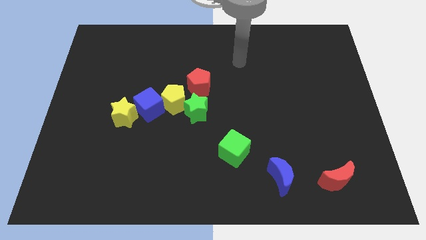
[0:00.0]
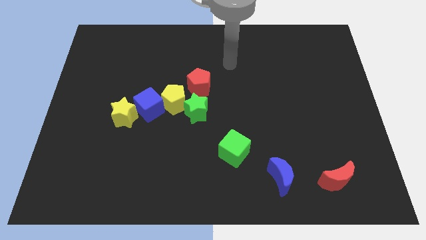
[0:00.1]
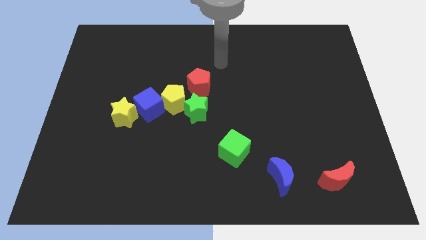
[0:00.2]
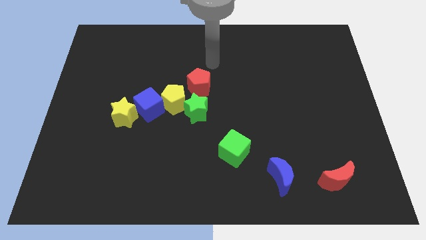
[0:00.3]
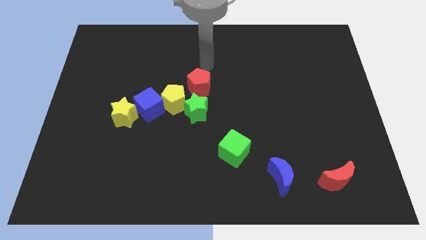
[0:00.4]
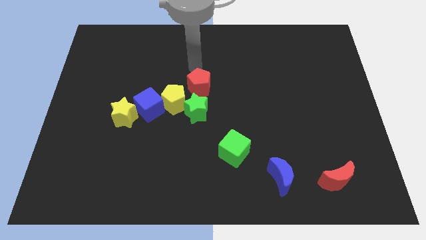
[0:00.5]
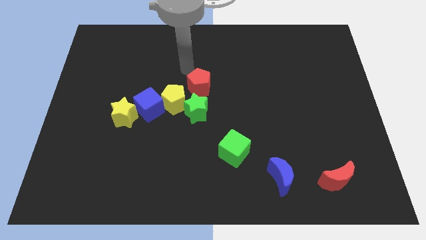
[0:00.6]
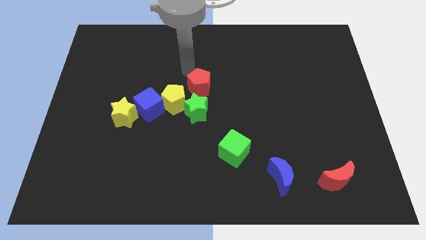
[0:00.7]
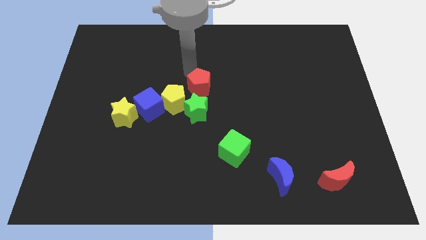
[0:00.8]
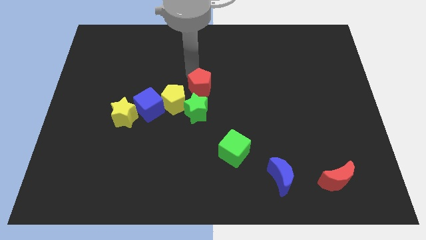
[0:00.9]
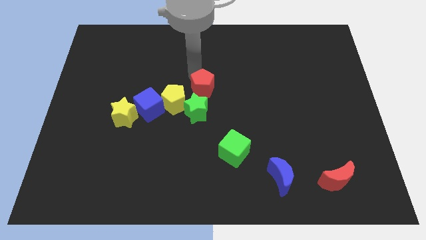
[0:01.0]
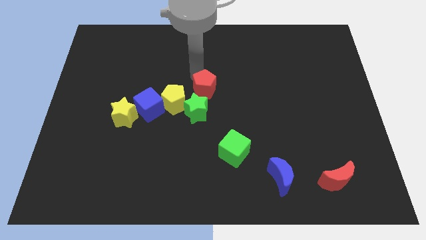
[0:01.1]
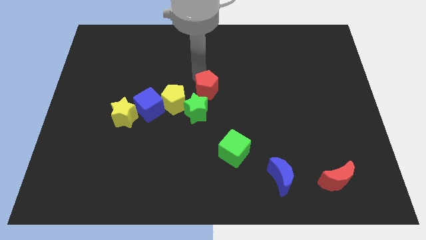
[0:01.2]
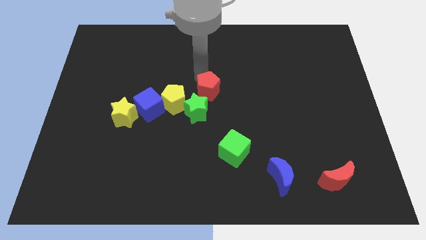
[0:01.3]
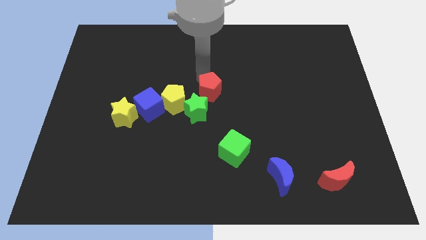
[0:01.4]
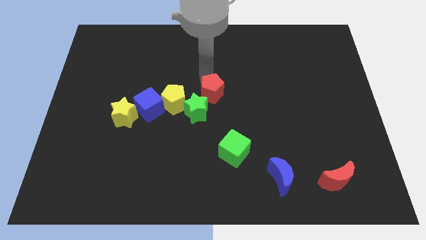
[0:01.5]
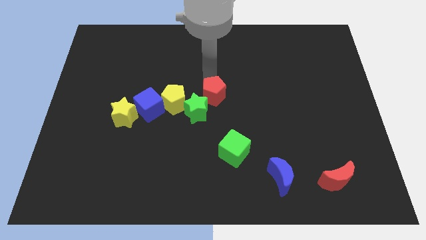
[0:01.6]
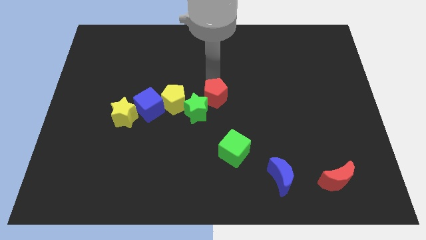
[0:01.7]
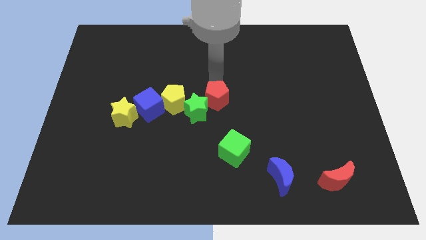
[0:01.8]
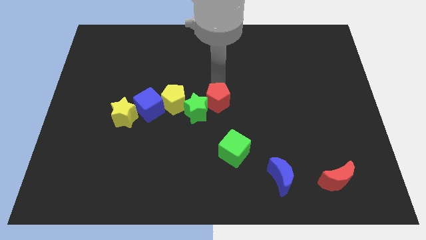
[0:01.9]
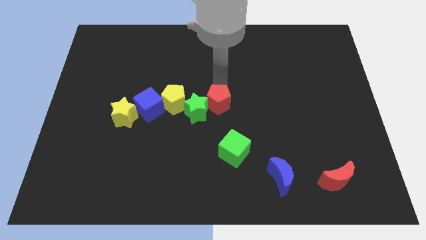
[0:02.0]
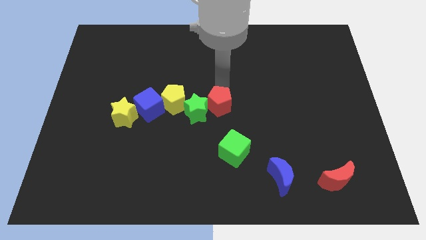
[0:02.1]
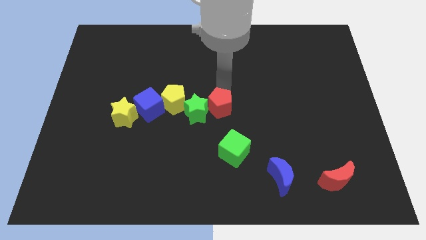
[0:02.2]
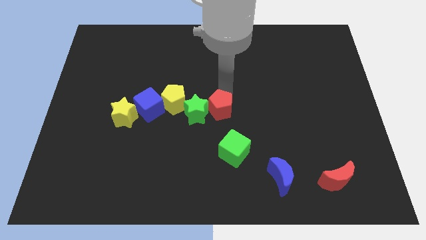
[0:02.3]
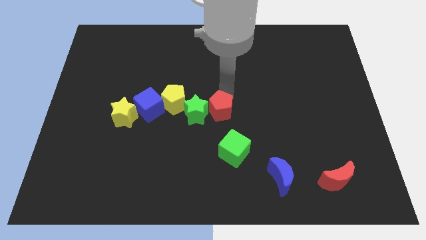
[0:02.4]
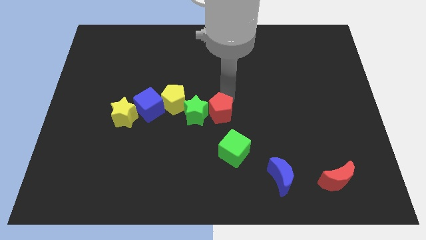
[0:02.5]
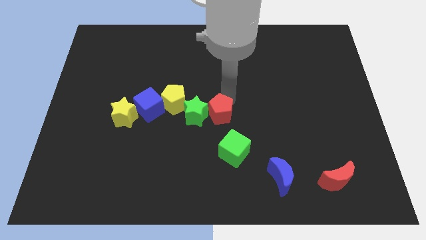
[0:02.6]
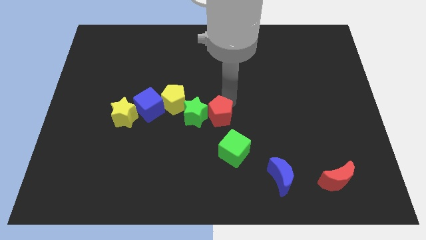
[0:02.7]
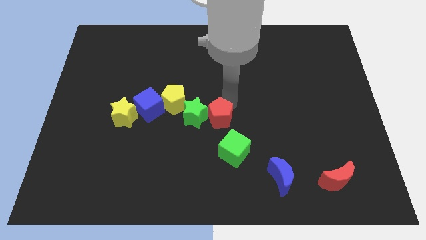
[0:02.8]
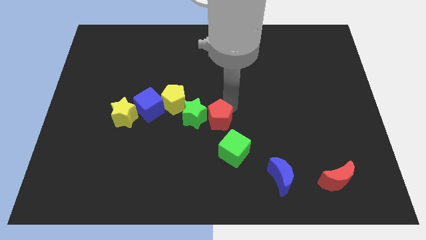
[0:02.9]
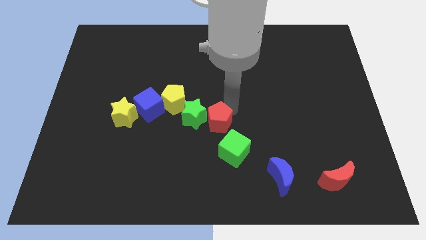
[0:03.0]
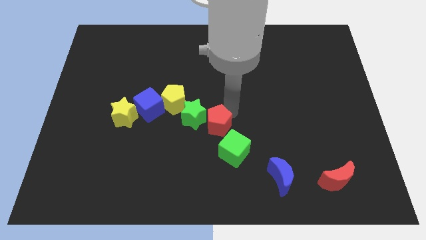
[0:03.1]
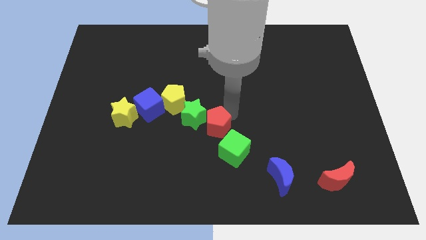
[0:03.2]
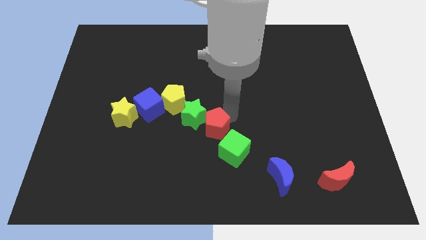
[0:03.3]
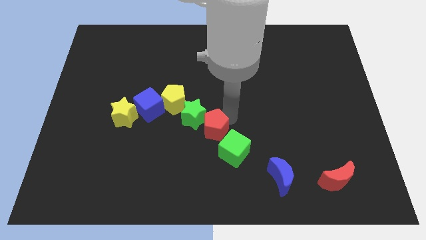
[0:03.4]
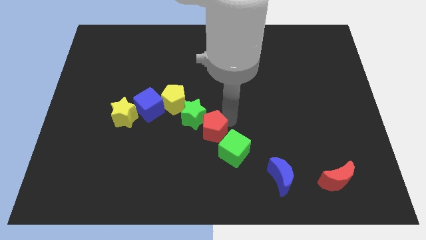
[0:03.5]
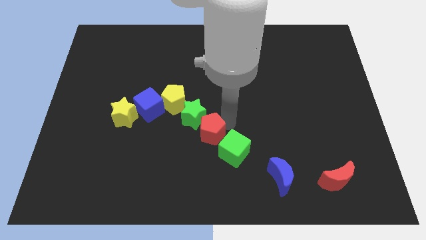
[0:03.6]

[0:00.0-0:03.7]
put the red pentagon just left of the green cube

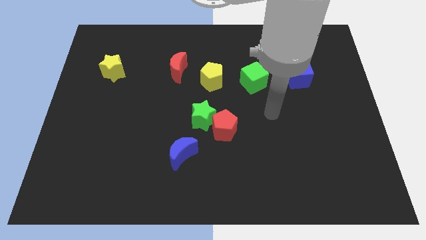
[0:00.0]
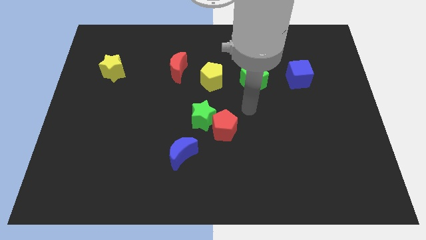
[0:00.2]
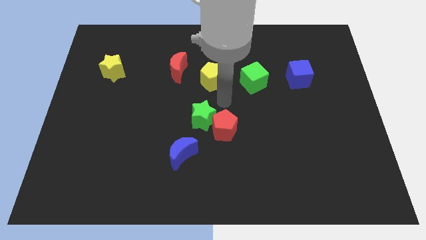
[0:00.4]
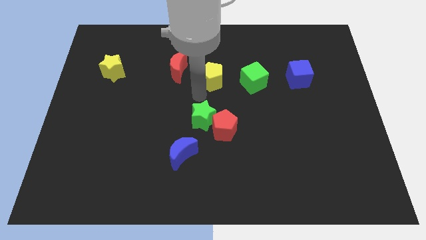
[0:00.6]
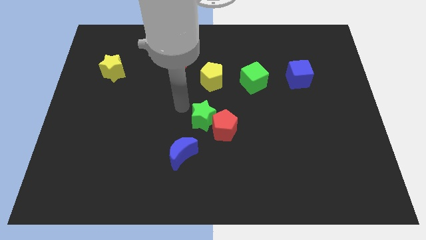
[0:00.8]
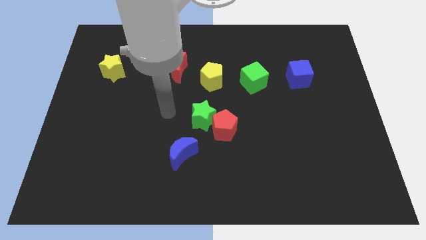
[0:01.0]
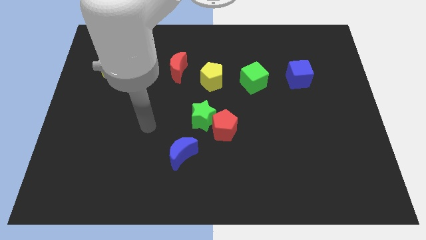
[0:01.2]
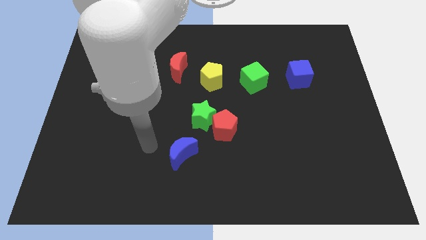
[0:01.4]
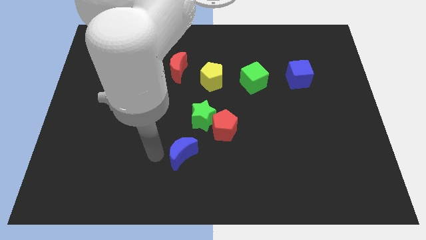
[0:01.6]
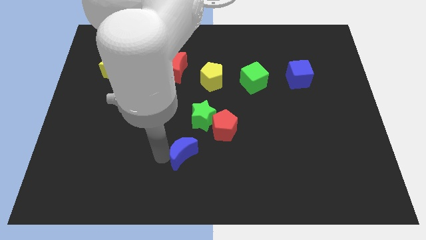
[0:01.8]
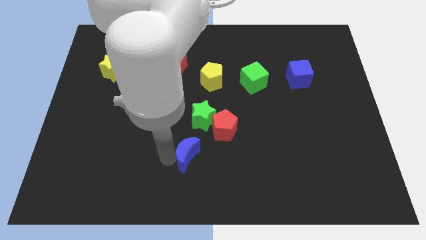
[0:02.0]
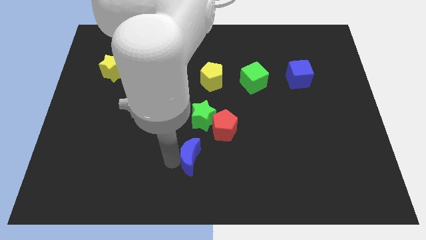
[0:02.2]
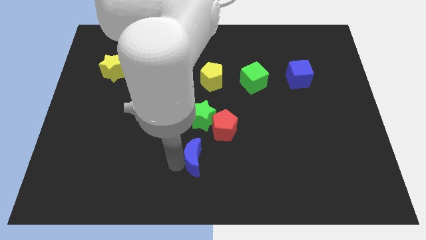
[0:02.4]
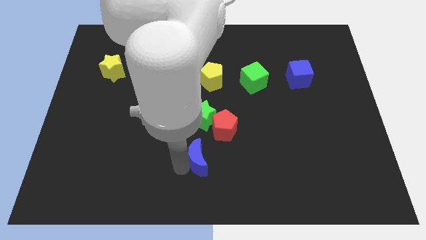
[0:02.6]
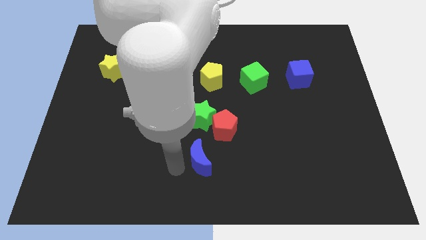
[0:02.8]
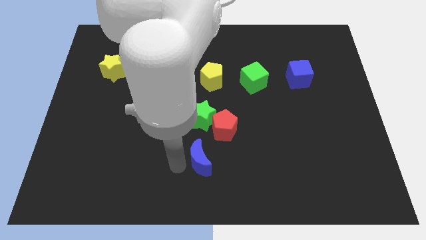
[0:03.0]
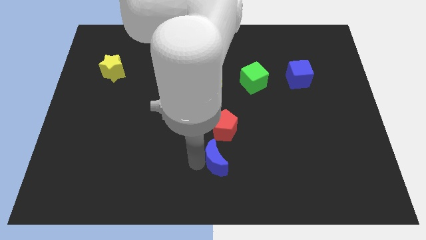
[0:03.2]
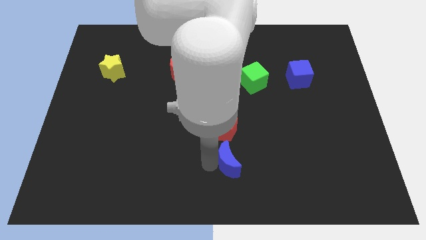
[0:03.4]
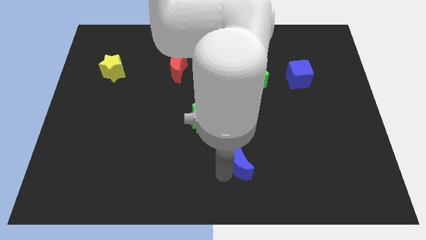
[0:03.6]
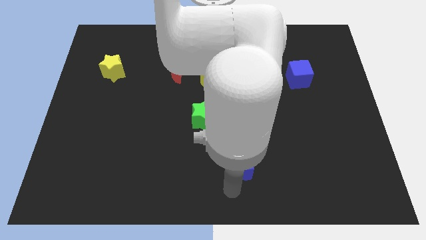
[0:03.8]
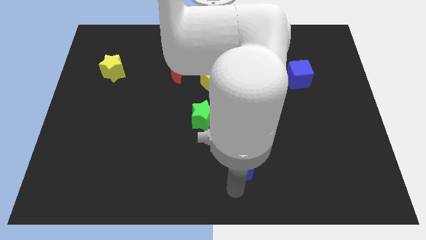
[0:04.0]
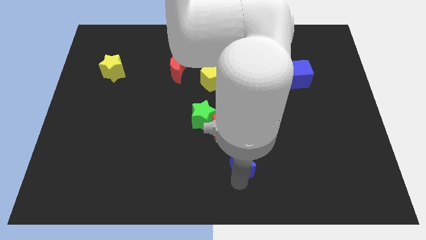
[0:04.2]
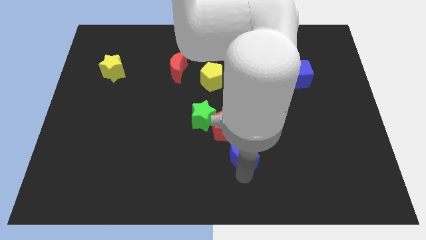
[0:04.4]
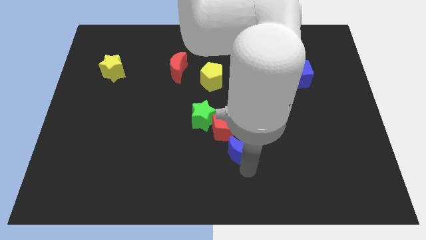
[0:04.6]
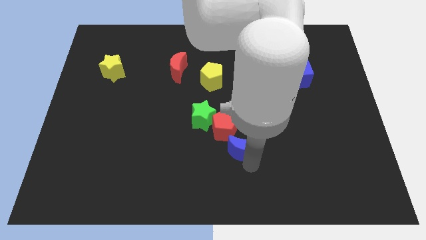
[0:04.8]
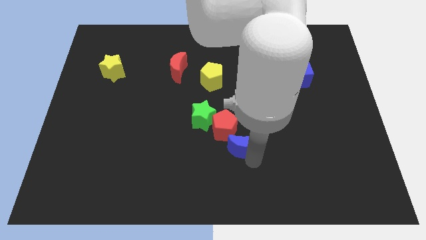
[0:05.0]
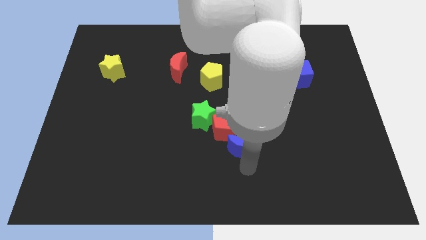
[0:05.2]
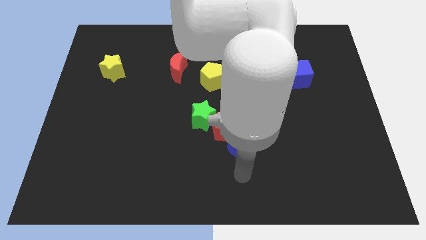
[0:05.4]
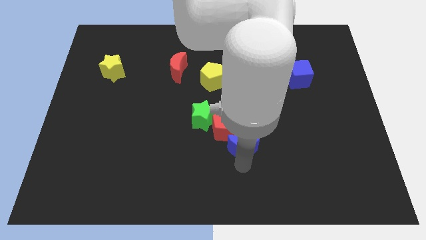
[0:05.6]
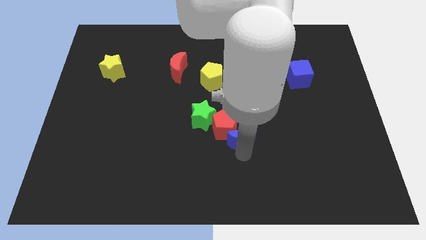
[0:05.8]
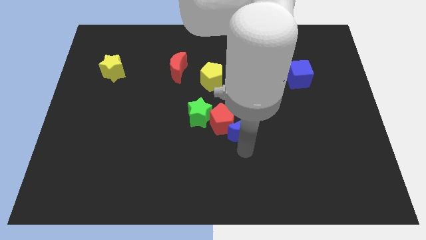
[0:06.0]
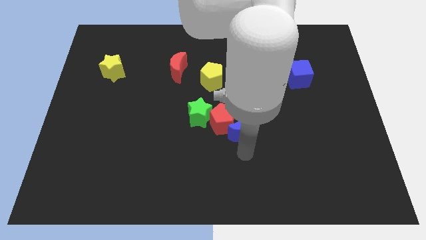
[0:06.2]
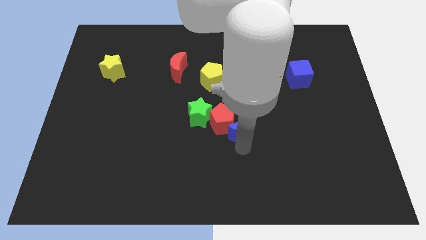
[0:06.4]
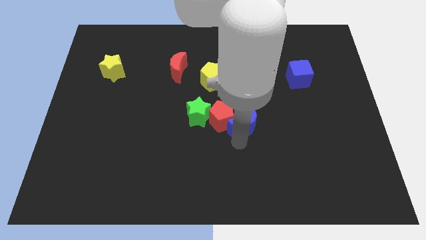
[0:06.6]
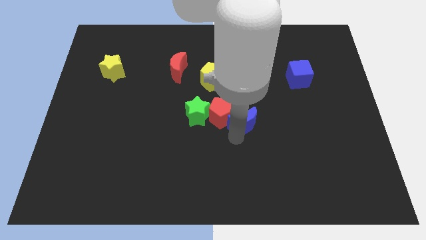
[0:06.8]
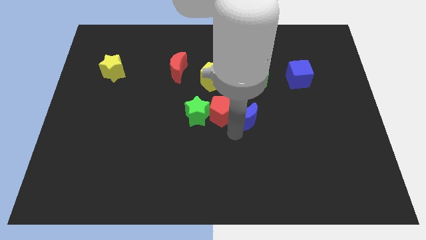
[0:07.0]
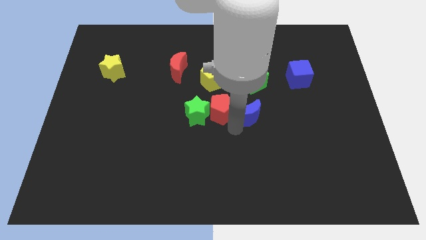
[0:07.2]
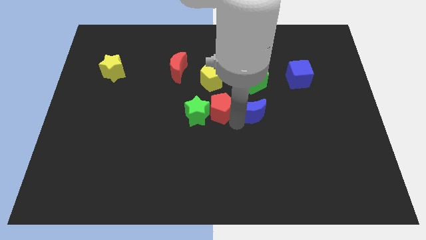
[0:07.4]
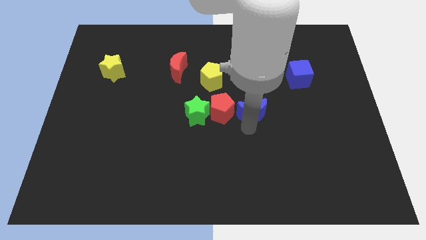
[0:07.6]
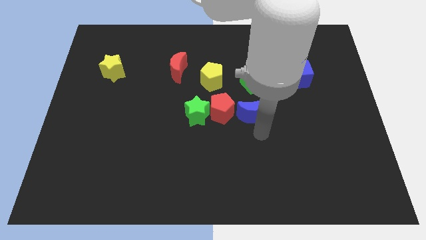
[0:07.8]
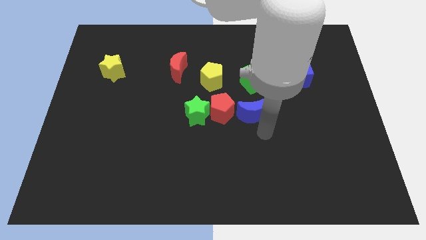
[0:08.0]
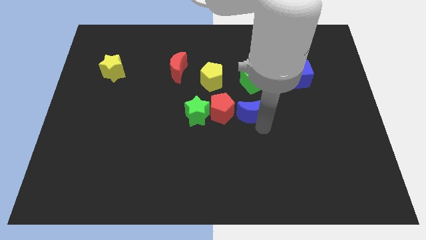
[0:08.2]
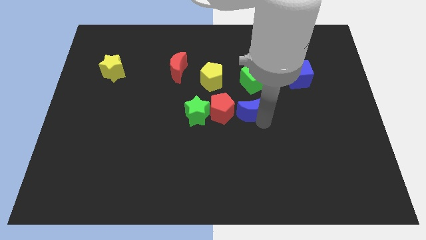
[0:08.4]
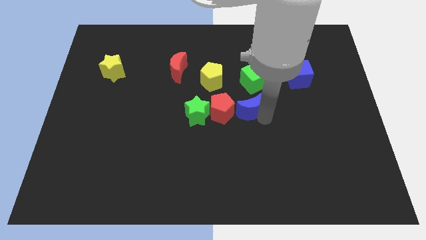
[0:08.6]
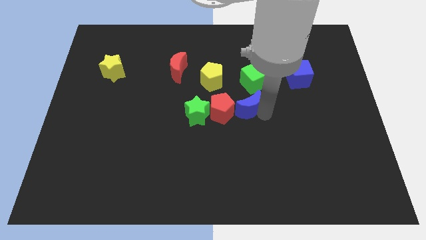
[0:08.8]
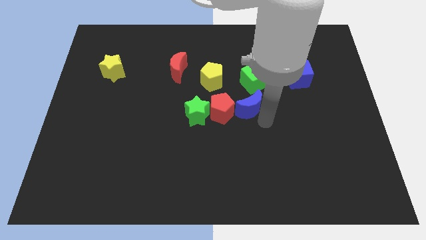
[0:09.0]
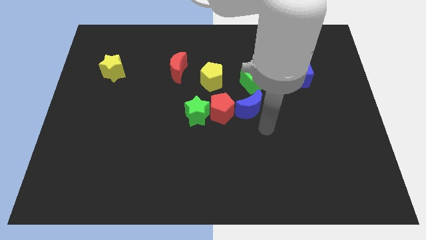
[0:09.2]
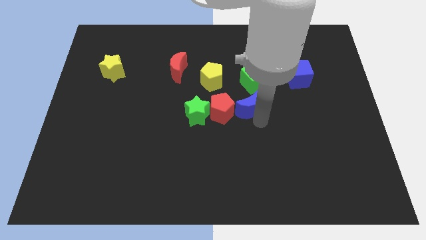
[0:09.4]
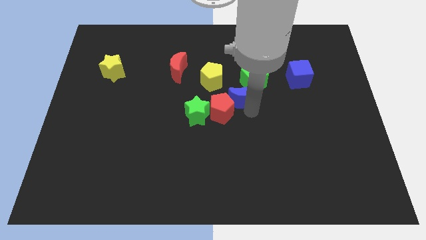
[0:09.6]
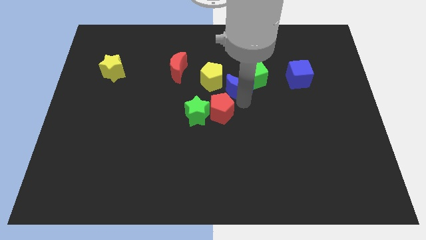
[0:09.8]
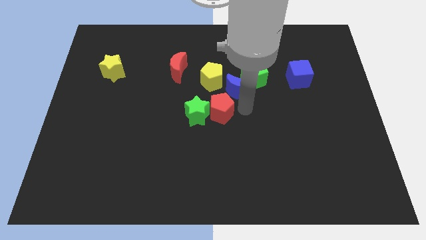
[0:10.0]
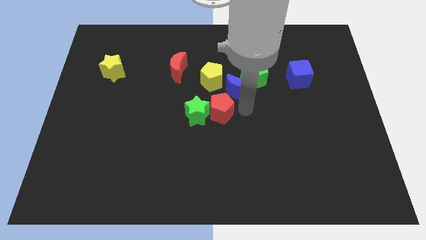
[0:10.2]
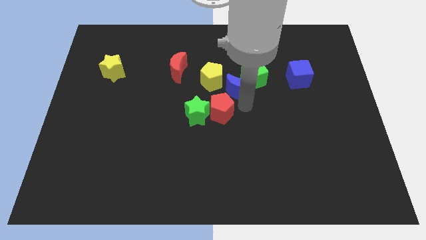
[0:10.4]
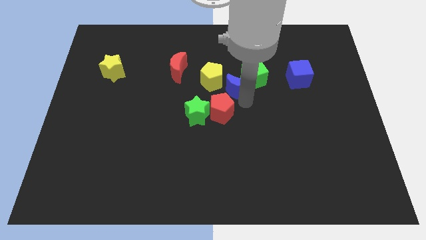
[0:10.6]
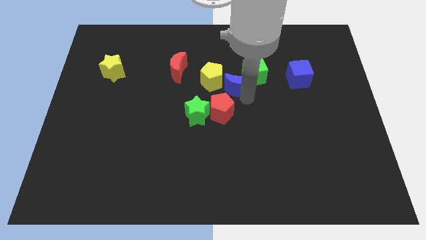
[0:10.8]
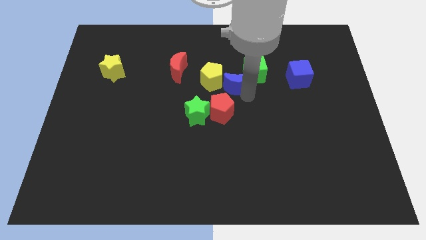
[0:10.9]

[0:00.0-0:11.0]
put the blue moon left of the blue cube
